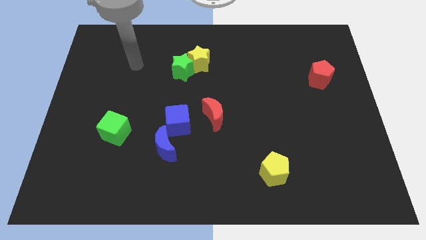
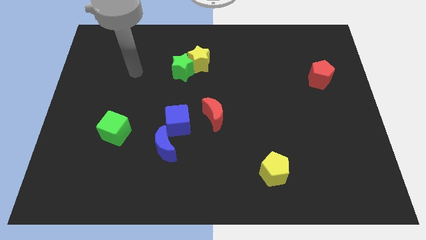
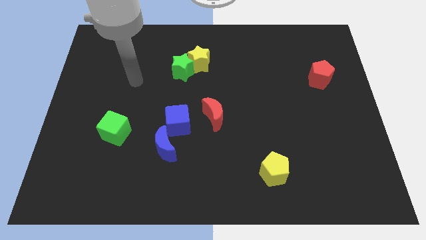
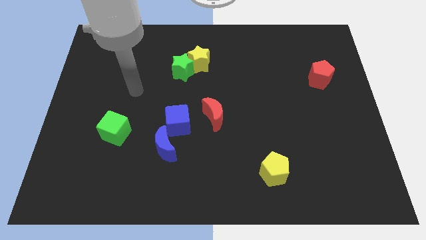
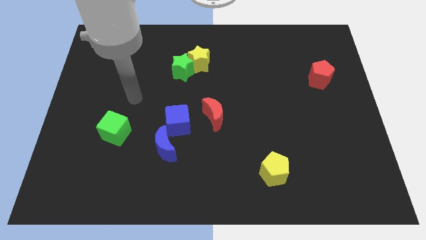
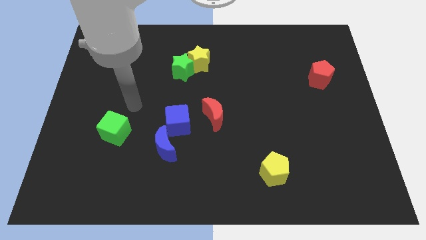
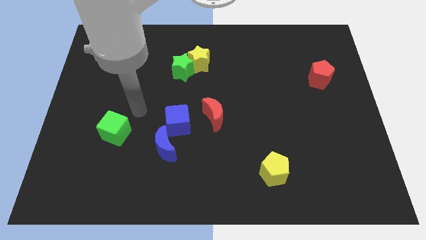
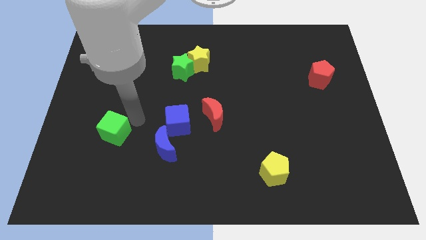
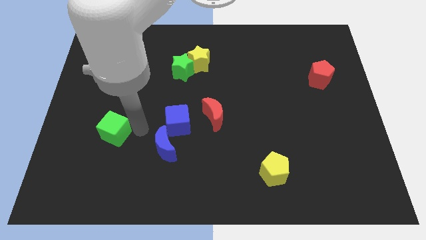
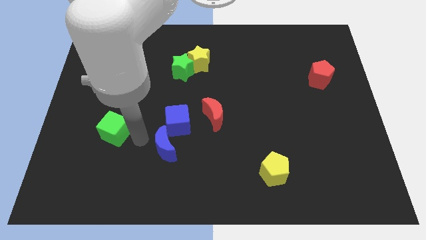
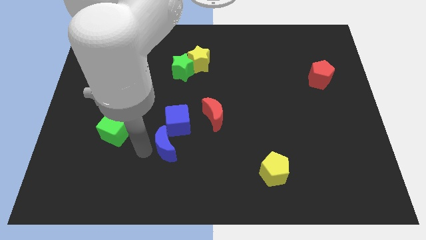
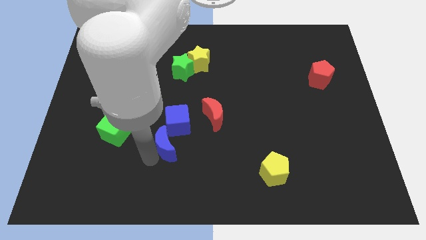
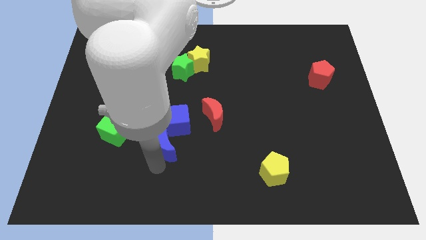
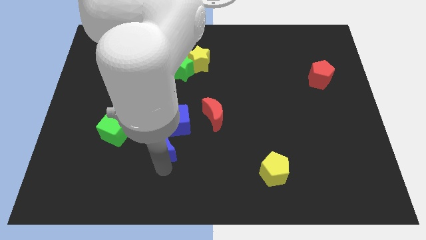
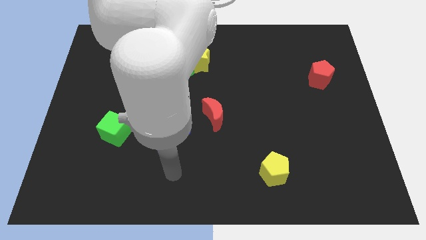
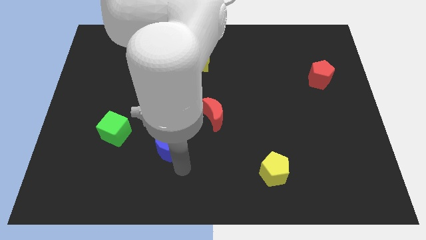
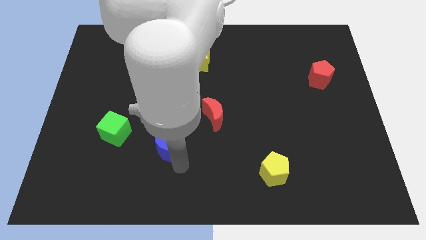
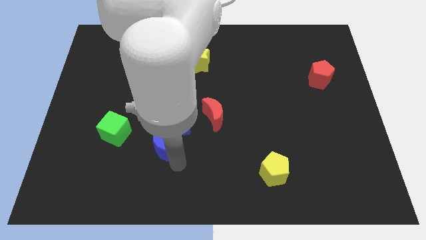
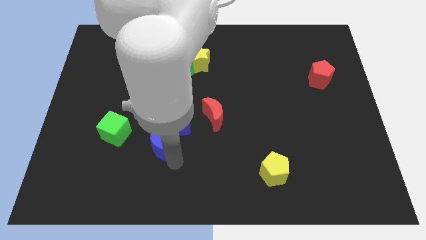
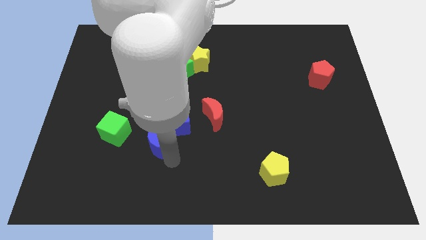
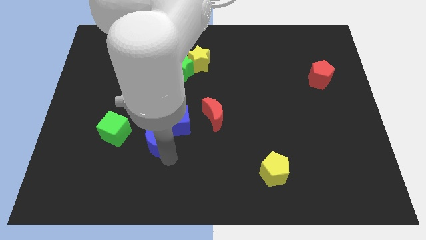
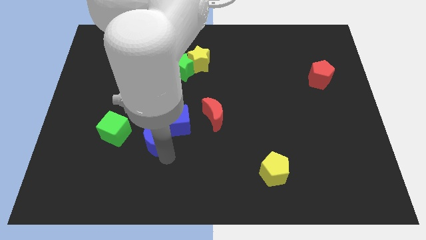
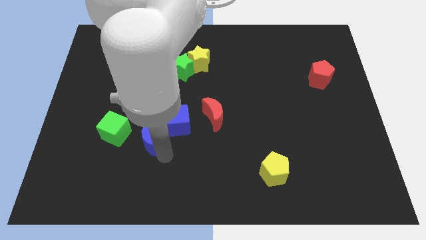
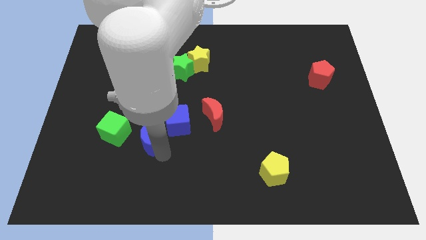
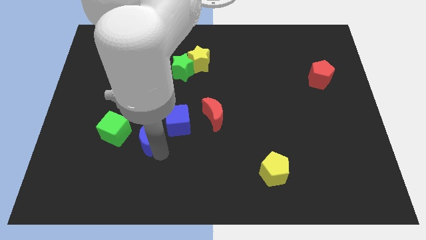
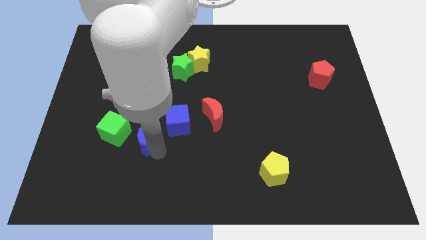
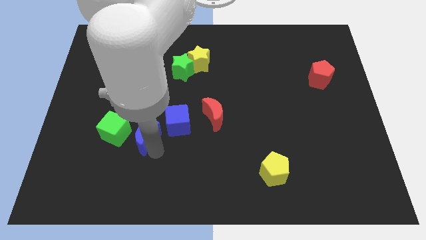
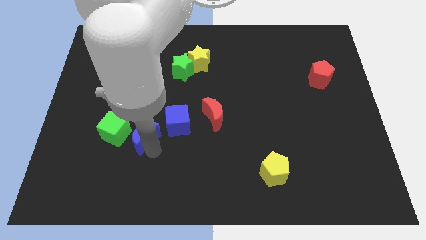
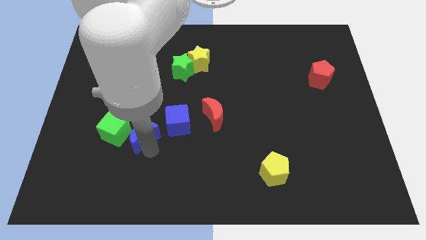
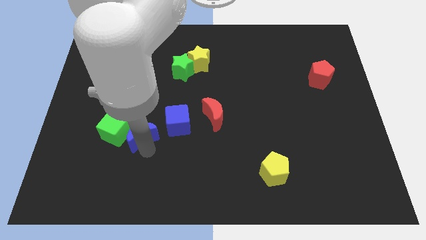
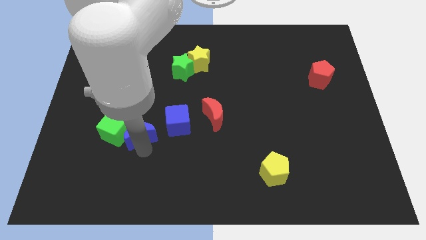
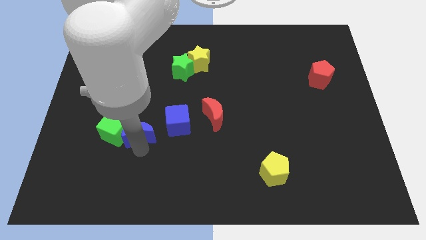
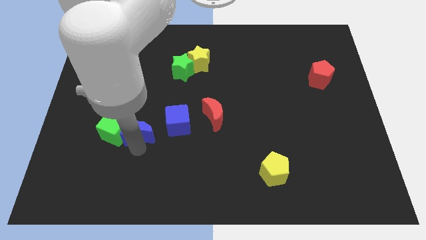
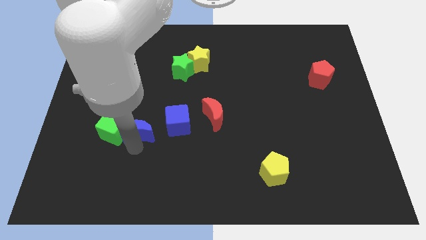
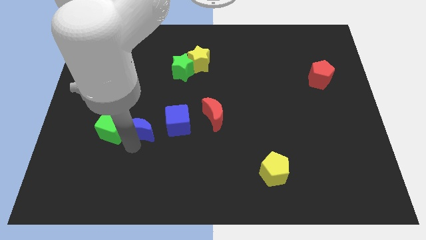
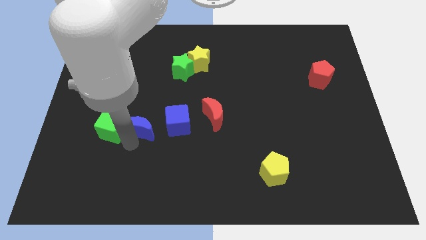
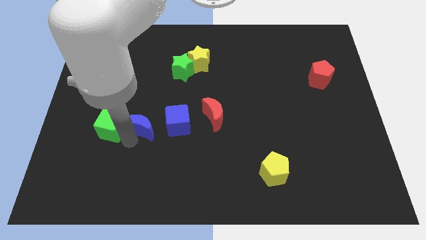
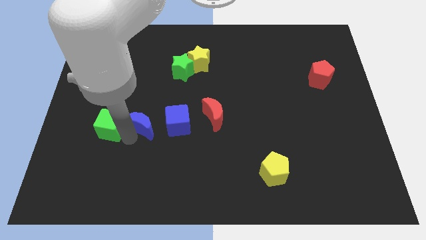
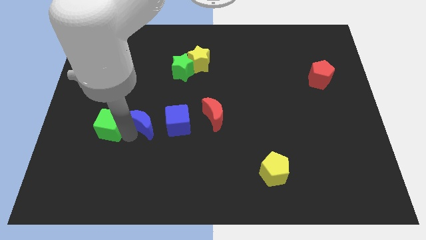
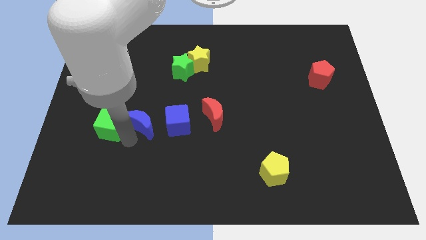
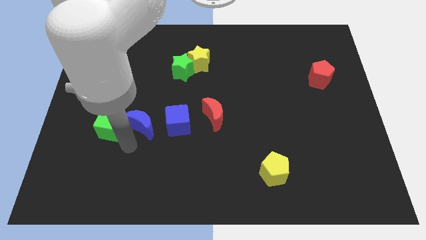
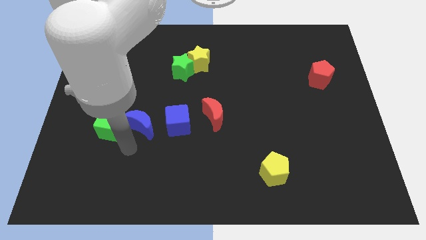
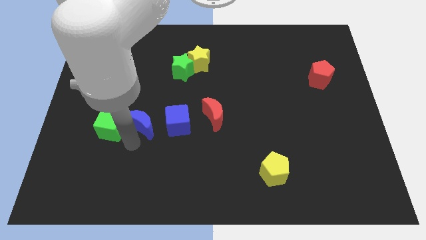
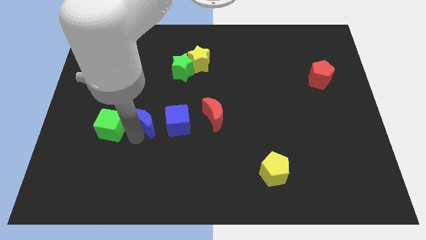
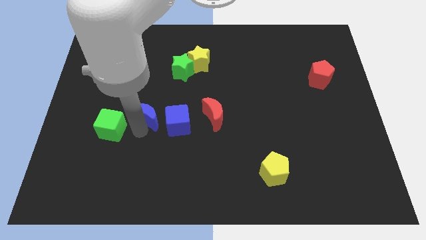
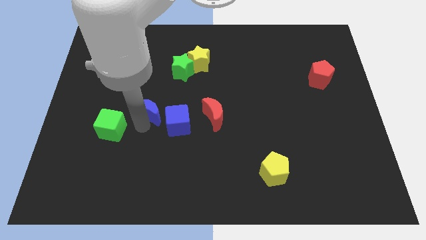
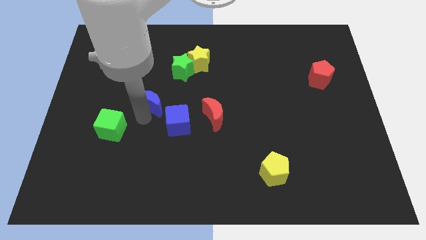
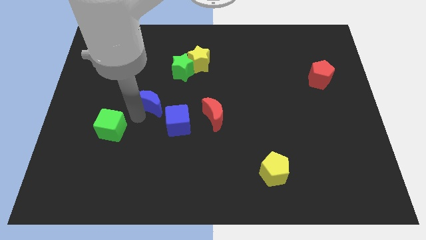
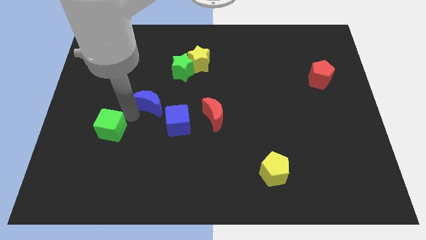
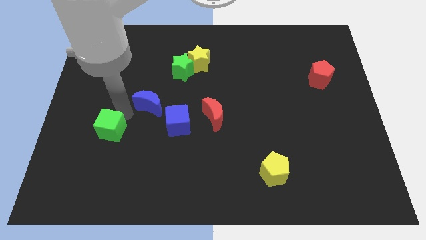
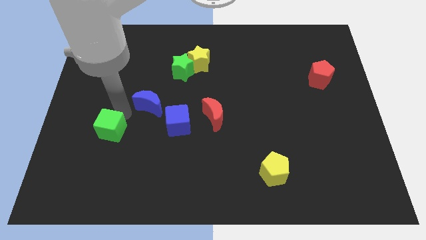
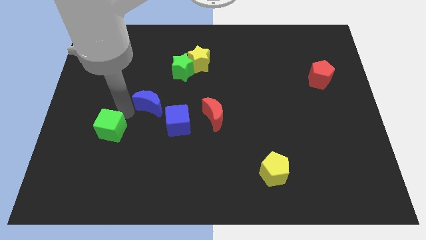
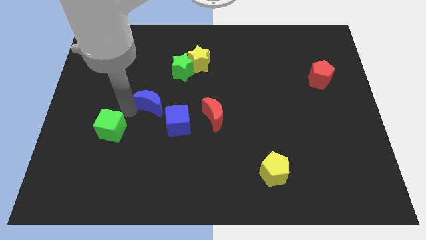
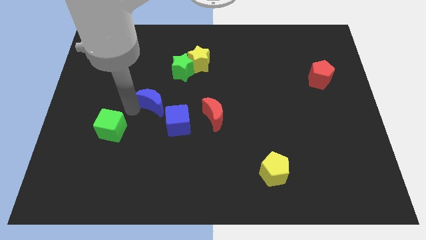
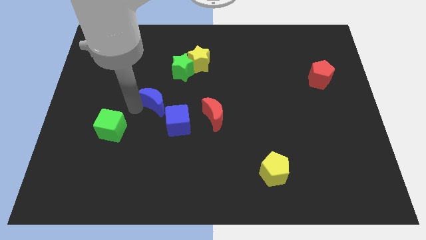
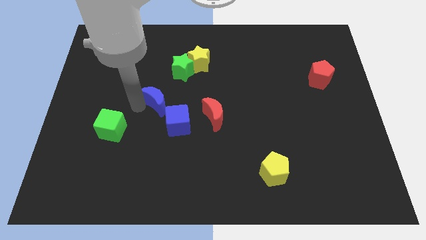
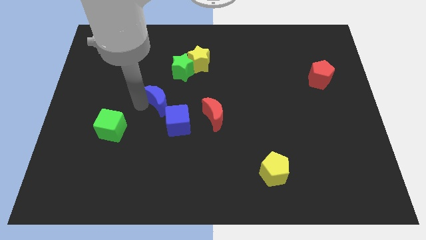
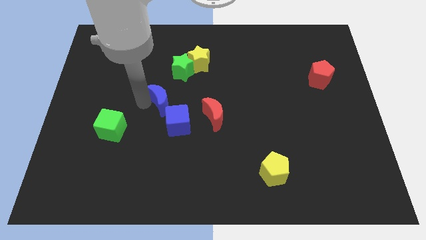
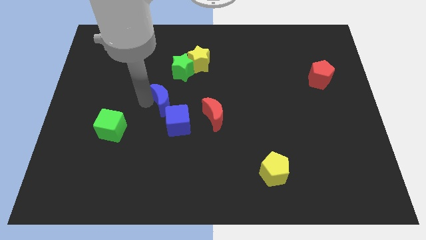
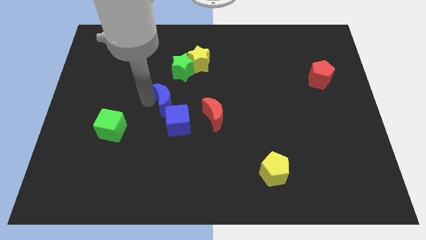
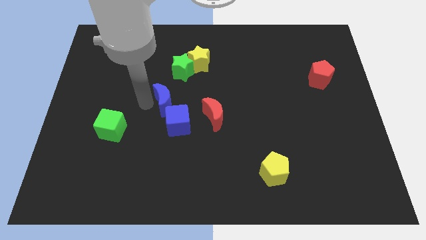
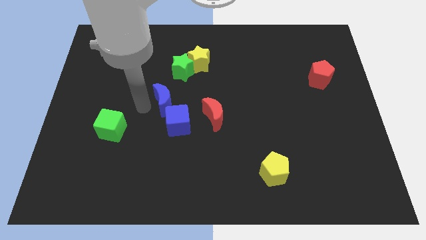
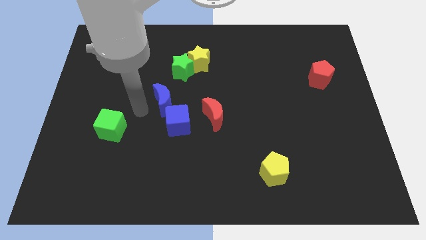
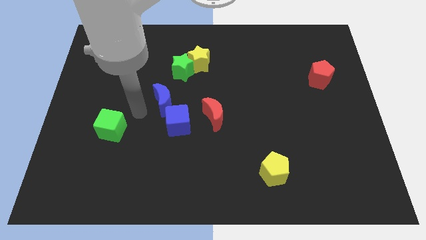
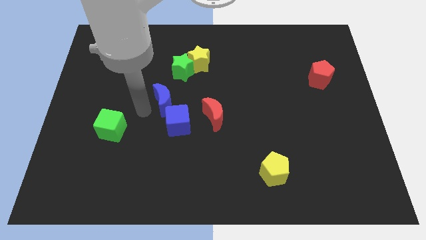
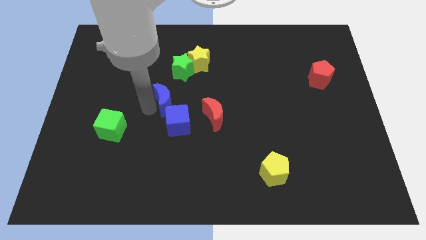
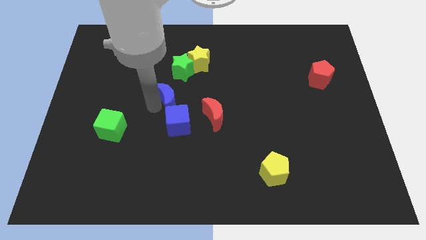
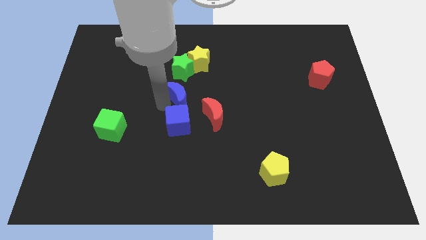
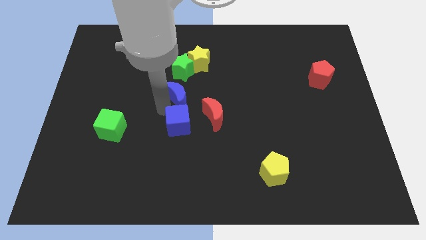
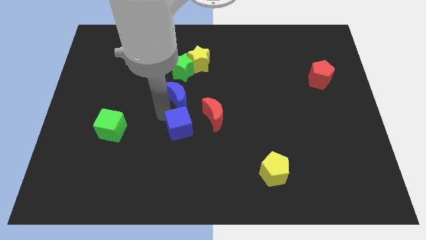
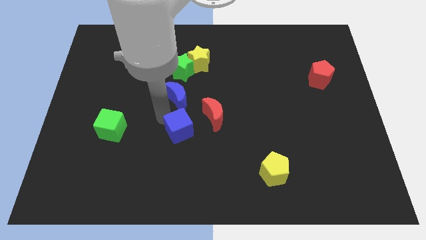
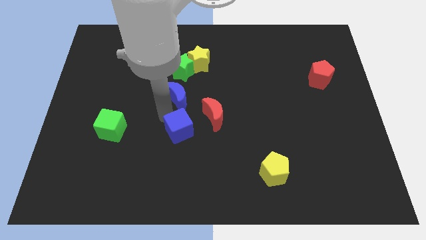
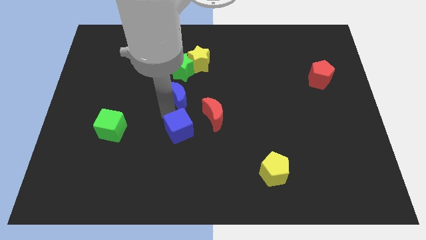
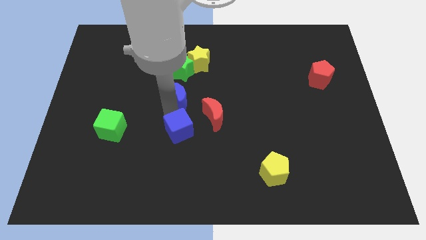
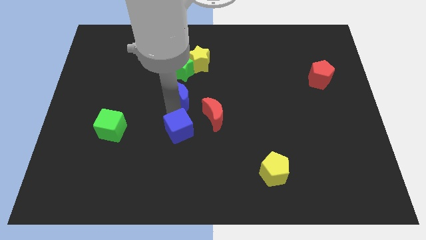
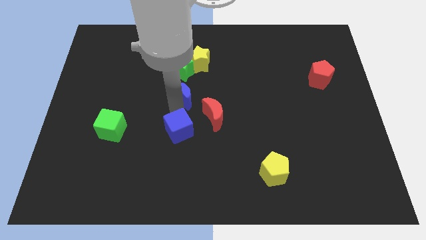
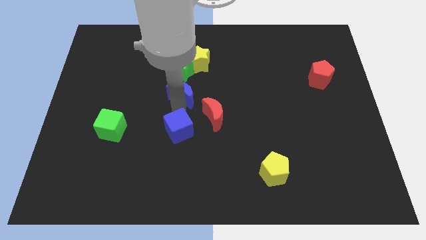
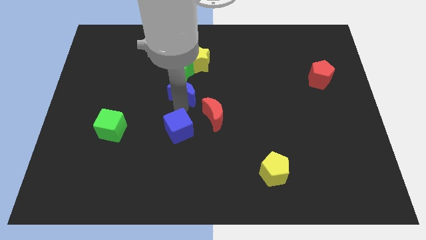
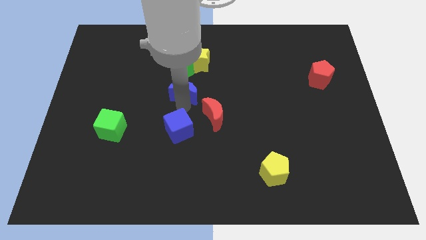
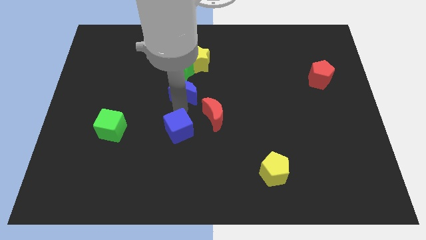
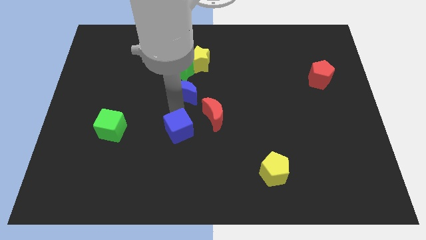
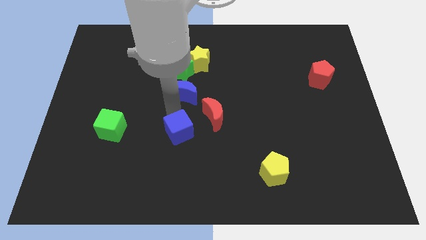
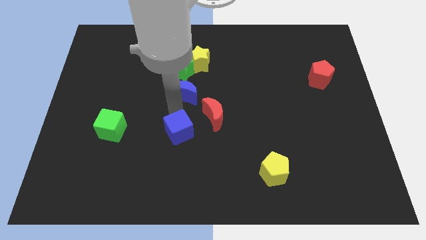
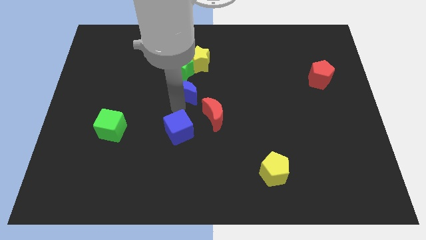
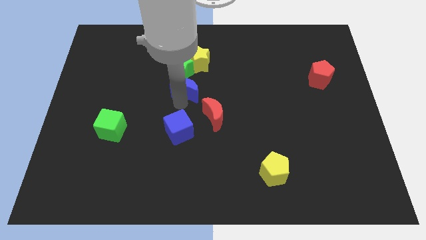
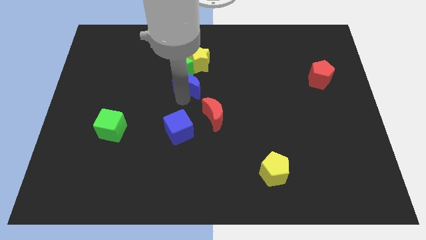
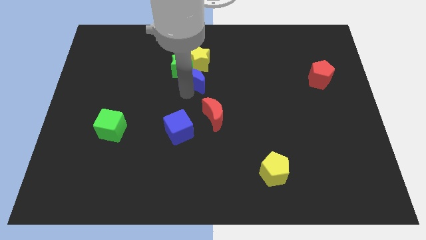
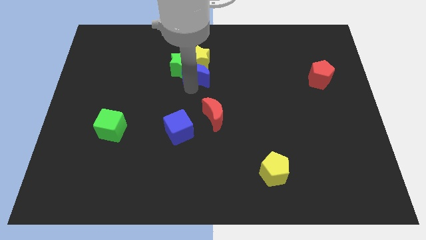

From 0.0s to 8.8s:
push the blue moon close to the yellow star
